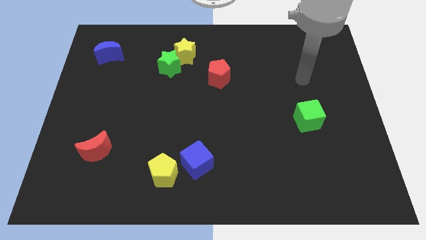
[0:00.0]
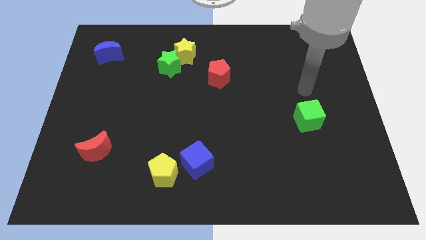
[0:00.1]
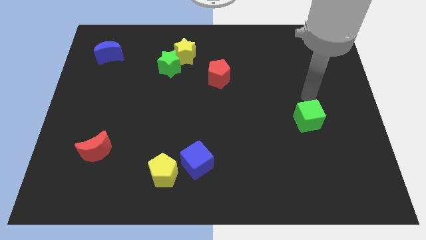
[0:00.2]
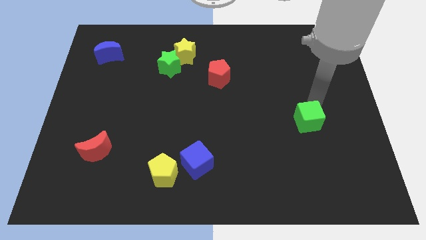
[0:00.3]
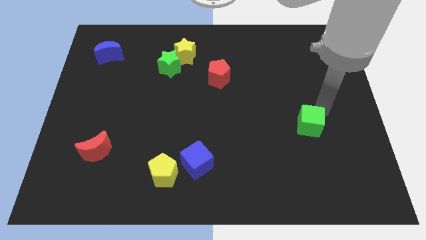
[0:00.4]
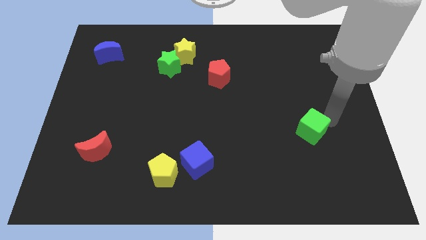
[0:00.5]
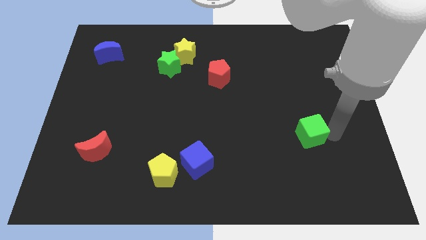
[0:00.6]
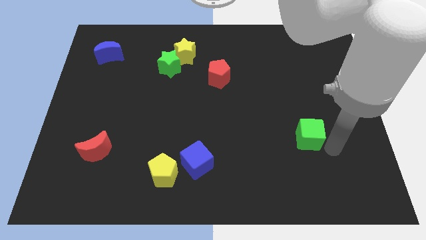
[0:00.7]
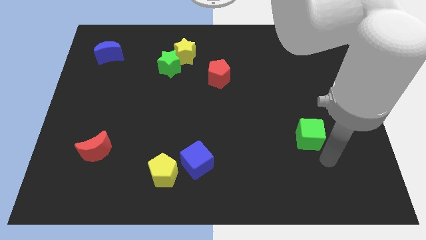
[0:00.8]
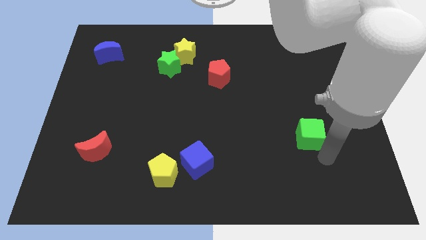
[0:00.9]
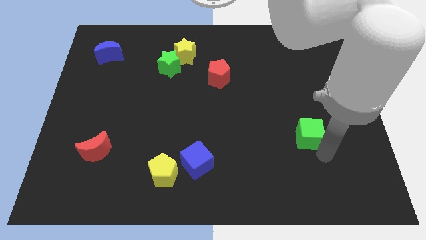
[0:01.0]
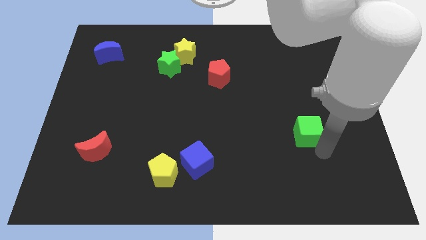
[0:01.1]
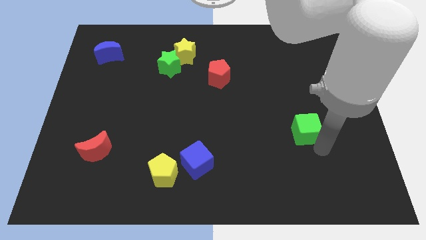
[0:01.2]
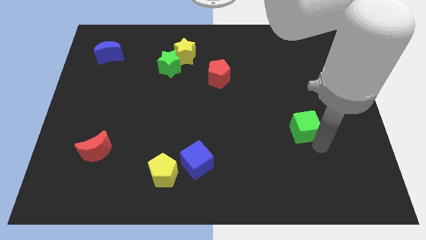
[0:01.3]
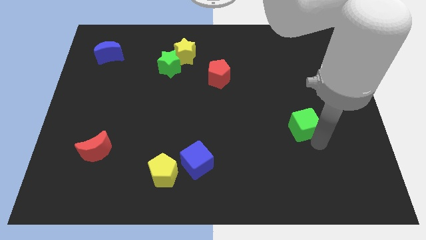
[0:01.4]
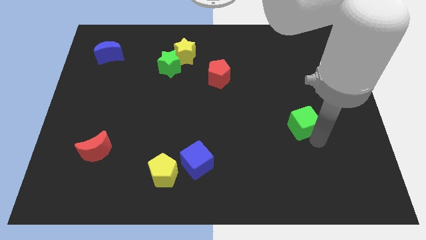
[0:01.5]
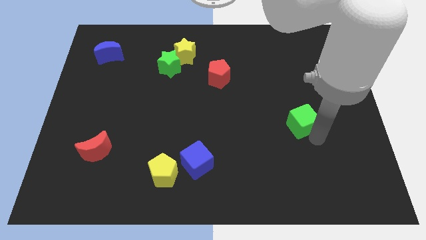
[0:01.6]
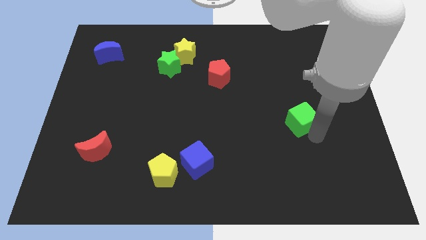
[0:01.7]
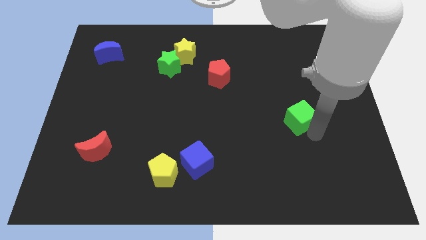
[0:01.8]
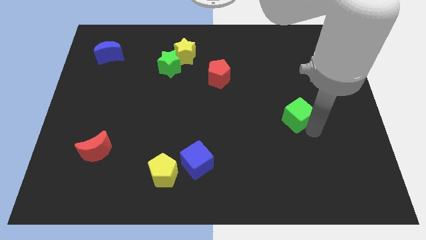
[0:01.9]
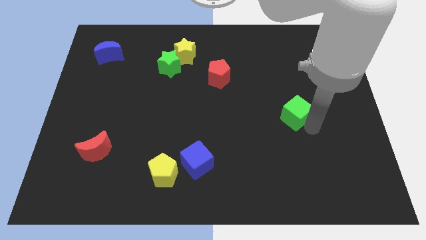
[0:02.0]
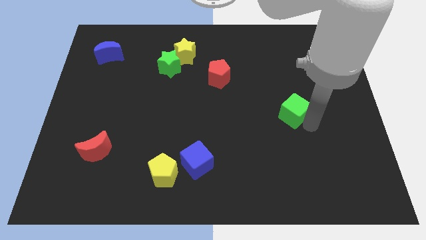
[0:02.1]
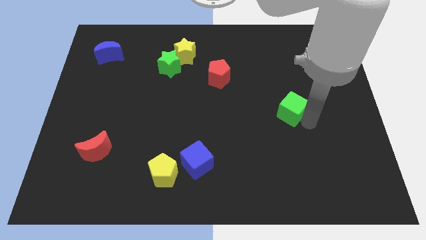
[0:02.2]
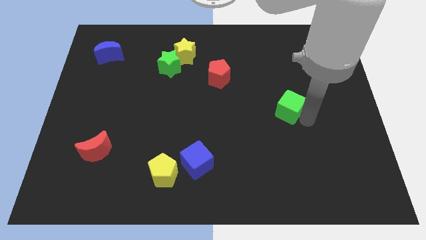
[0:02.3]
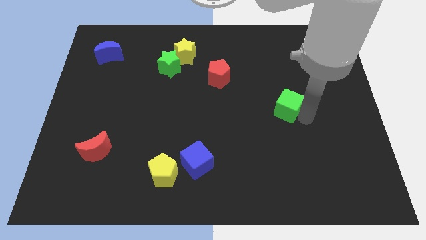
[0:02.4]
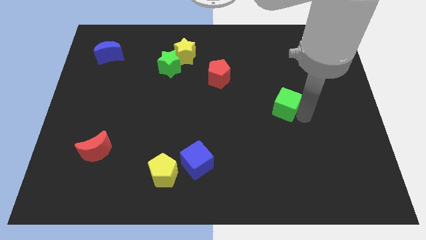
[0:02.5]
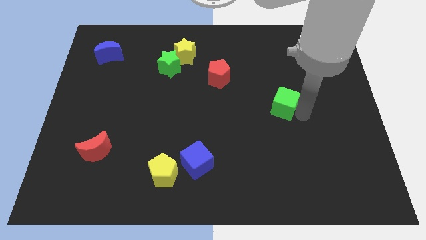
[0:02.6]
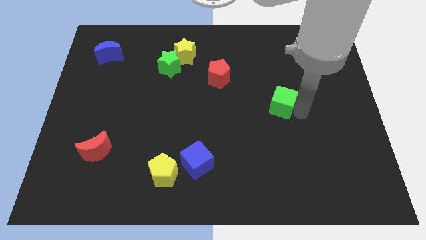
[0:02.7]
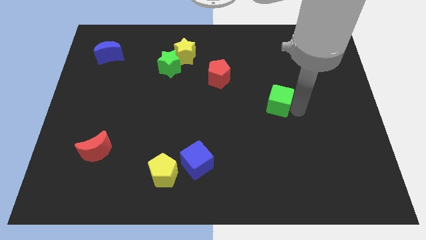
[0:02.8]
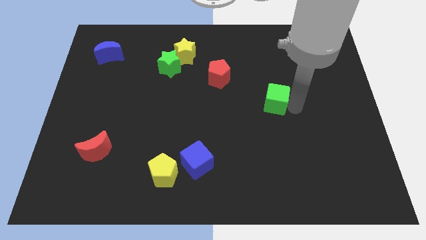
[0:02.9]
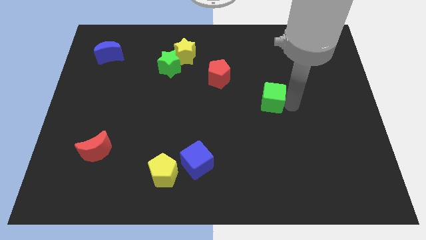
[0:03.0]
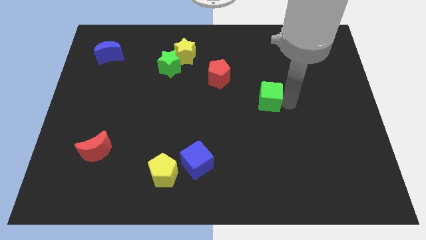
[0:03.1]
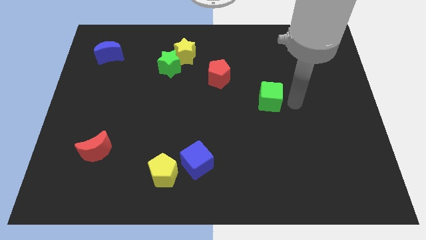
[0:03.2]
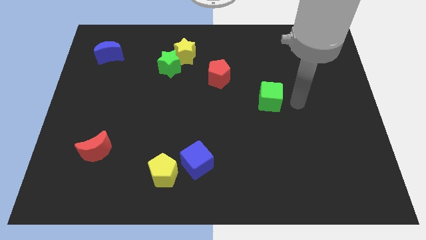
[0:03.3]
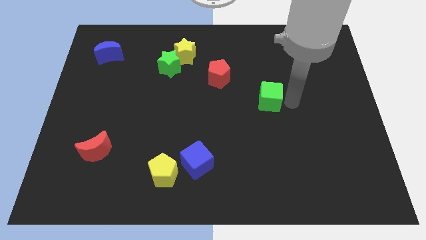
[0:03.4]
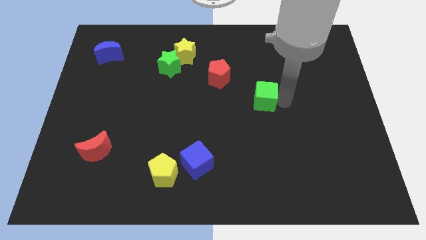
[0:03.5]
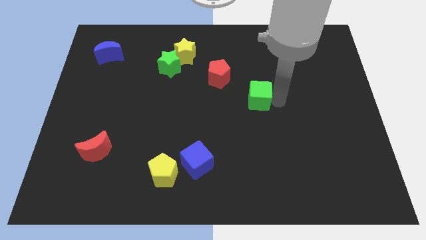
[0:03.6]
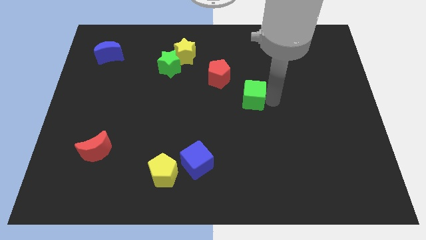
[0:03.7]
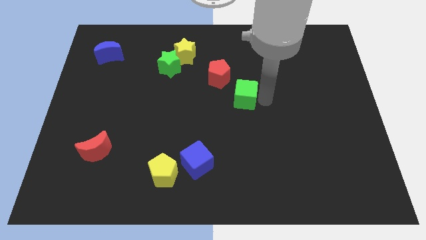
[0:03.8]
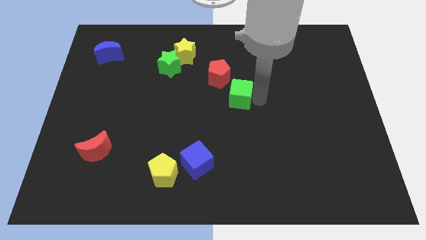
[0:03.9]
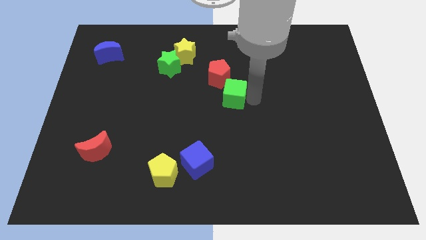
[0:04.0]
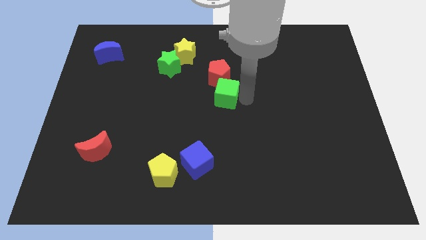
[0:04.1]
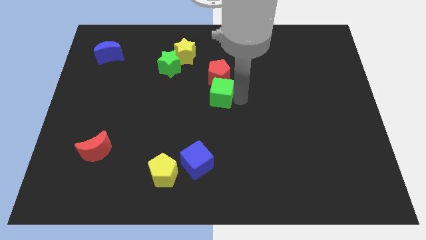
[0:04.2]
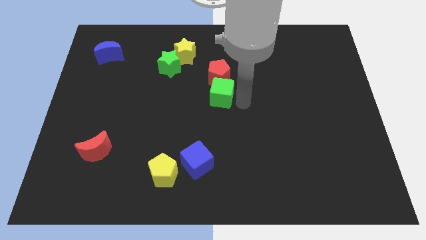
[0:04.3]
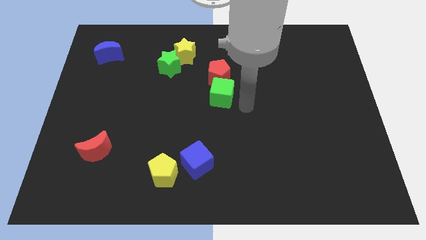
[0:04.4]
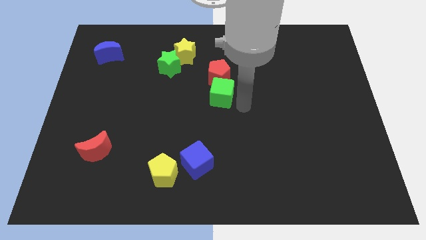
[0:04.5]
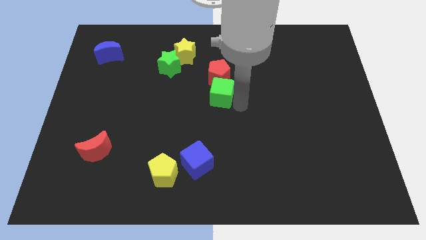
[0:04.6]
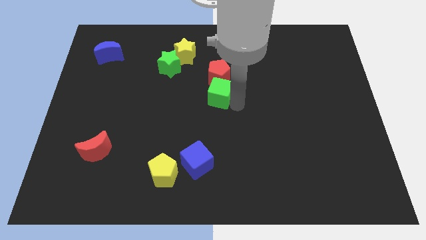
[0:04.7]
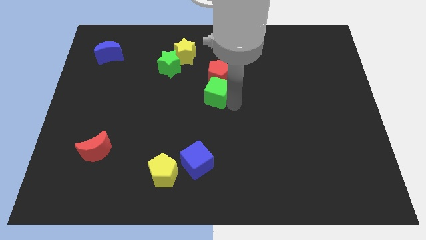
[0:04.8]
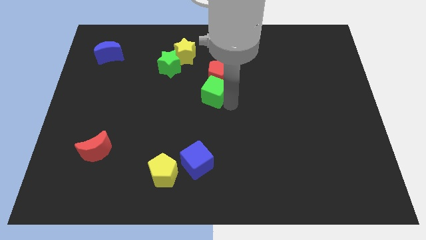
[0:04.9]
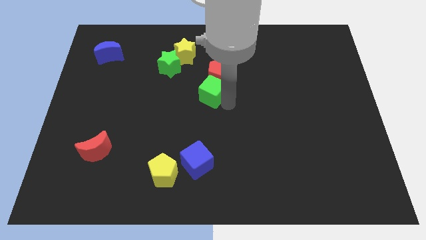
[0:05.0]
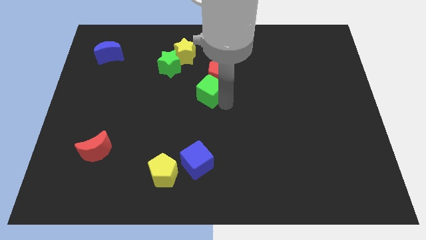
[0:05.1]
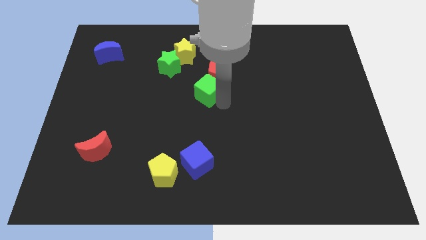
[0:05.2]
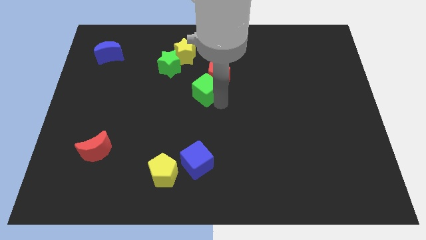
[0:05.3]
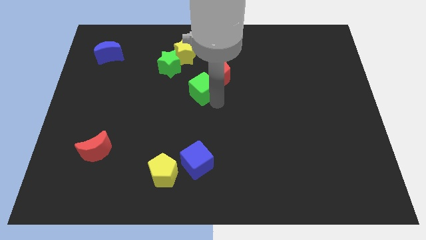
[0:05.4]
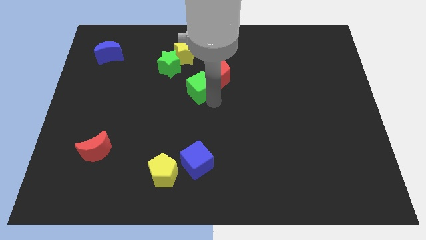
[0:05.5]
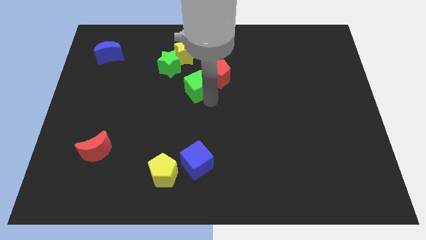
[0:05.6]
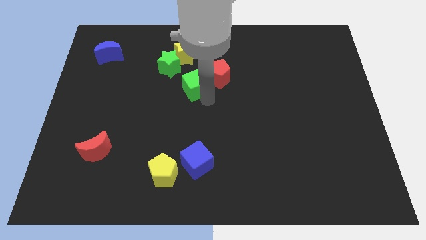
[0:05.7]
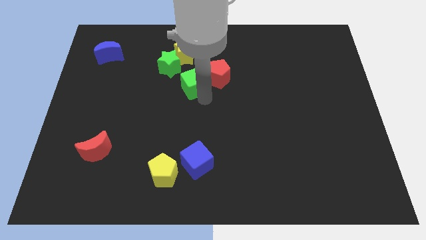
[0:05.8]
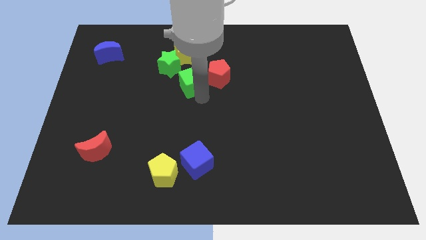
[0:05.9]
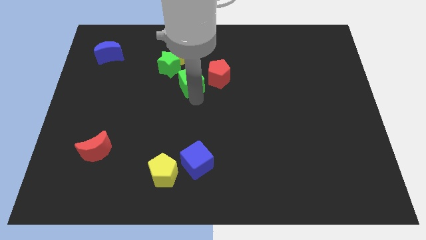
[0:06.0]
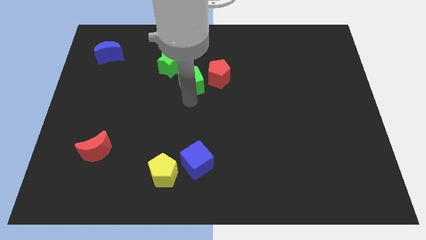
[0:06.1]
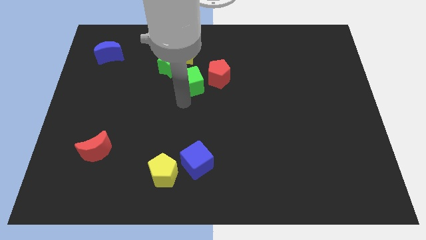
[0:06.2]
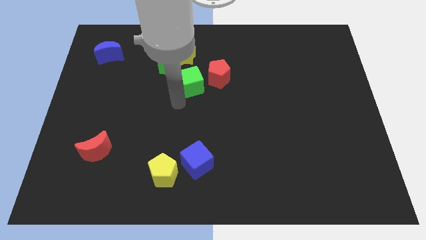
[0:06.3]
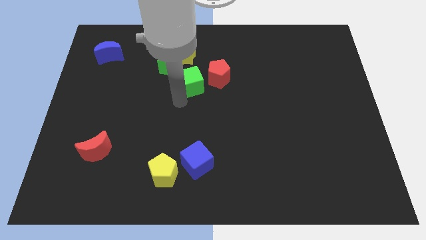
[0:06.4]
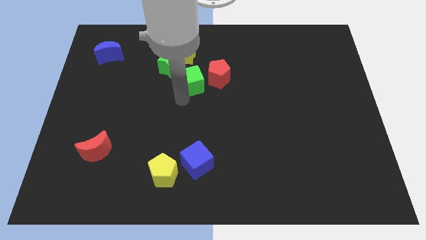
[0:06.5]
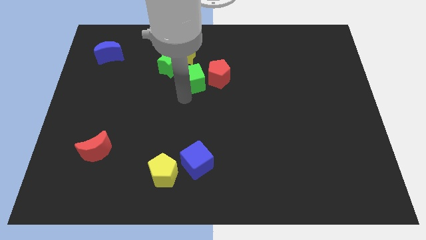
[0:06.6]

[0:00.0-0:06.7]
push the green cube to the bottom right side of the yellow star

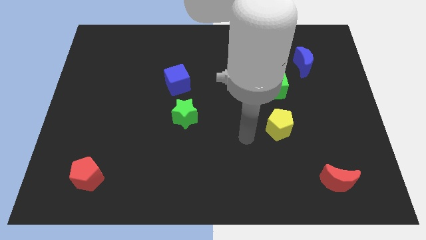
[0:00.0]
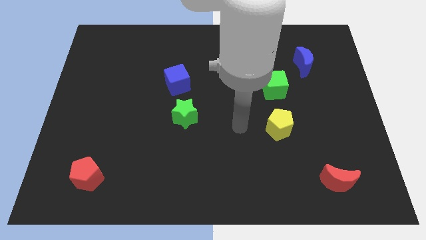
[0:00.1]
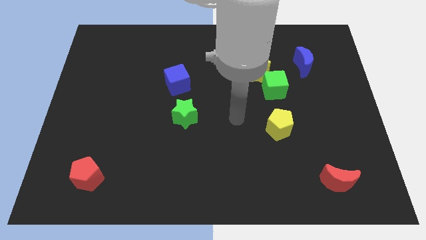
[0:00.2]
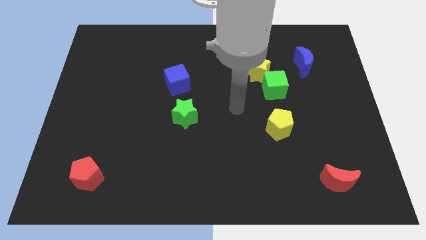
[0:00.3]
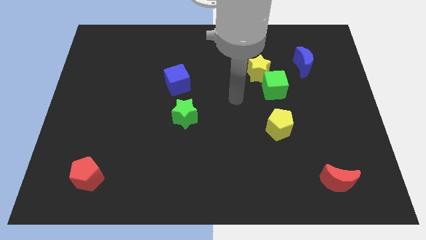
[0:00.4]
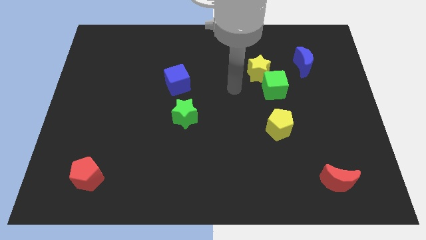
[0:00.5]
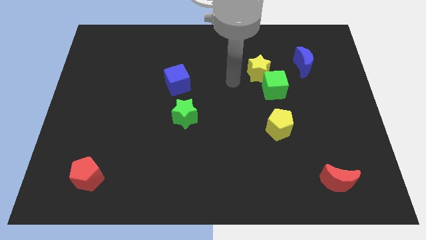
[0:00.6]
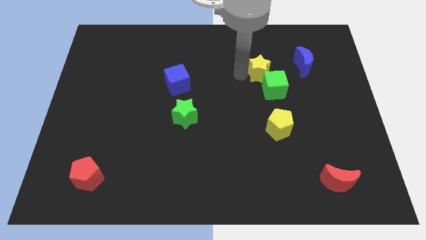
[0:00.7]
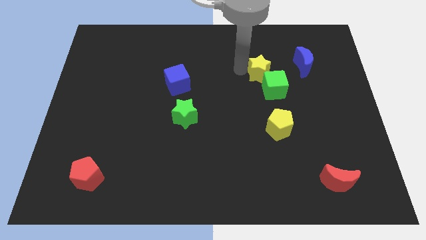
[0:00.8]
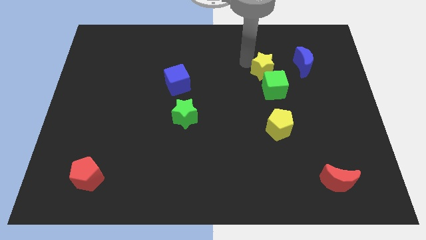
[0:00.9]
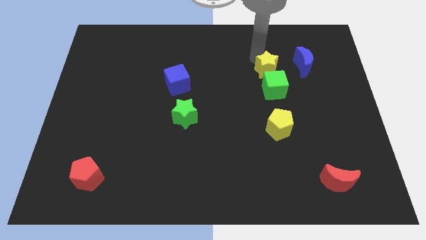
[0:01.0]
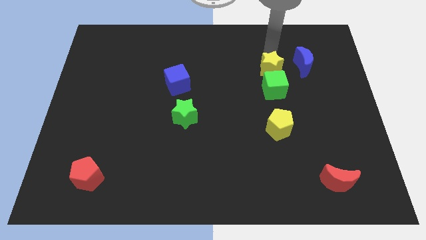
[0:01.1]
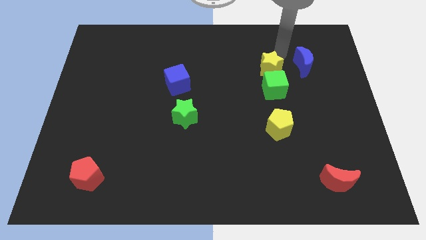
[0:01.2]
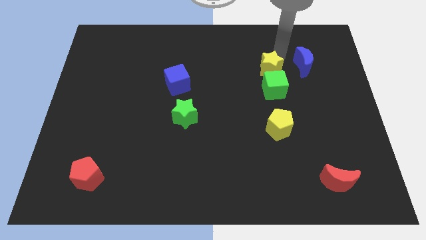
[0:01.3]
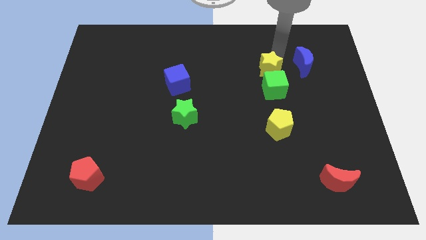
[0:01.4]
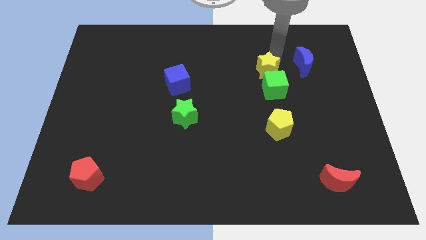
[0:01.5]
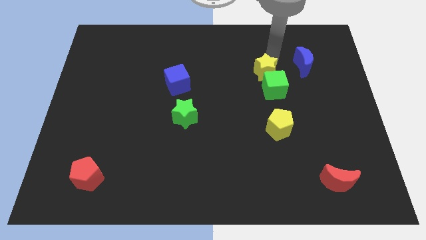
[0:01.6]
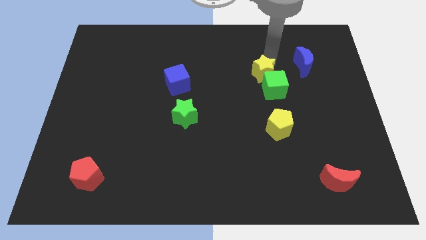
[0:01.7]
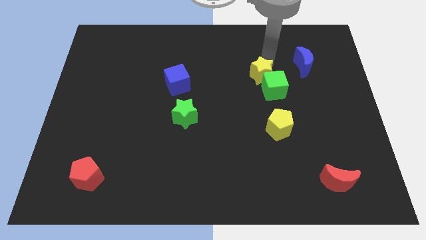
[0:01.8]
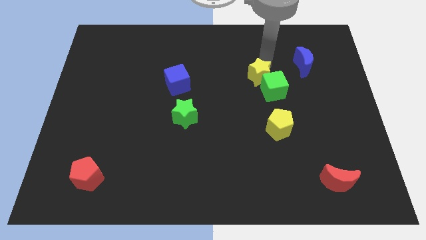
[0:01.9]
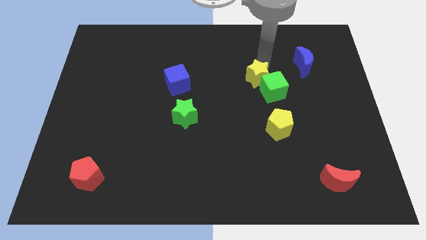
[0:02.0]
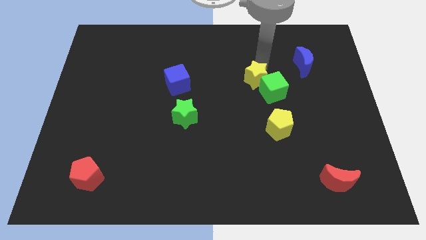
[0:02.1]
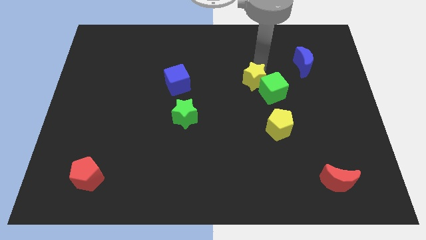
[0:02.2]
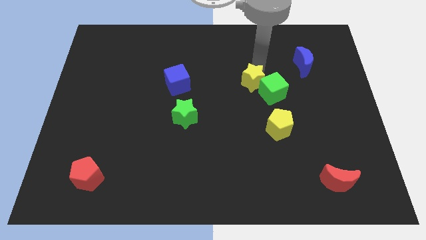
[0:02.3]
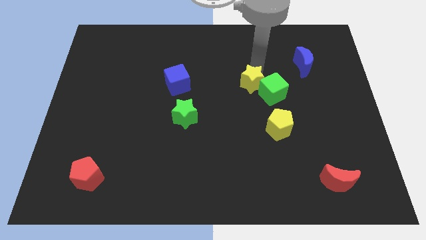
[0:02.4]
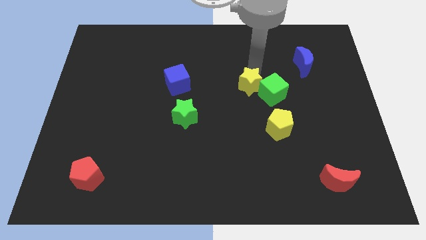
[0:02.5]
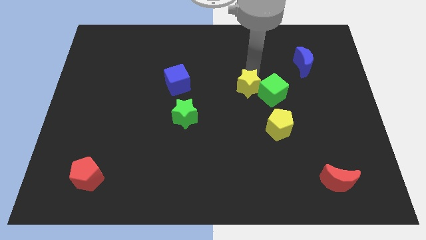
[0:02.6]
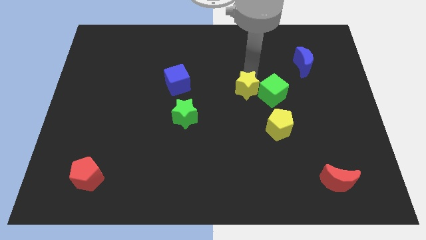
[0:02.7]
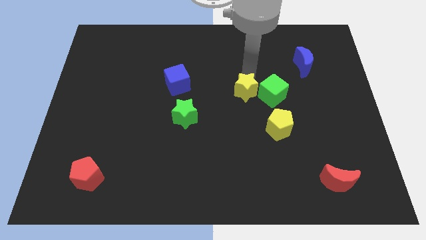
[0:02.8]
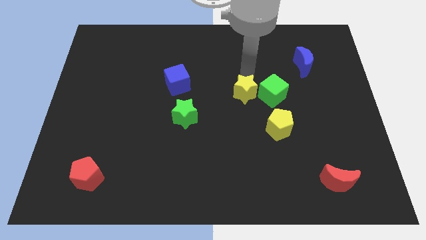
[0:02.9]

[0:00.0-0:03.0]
move the yellow star to the top left side of the yellow pentagon
